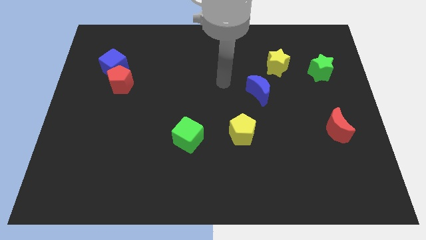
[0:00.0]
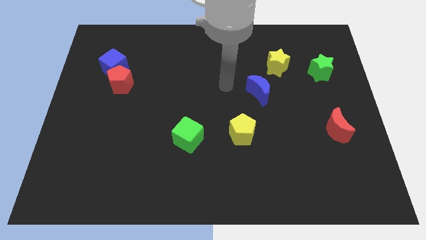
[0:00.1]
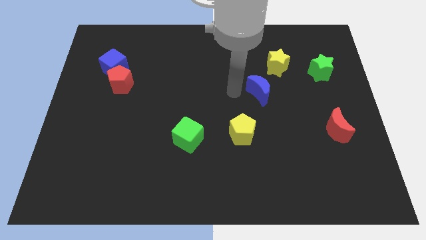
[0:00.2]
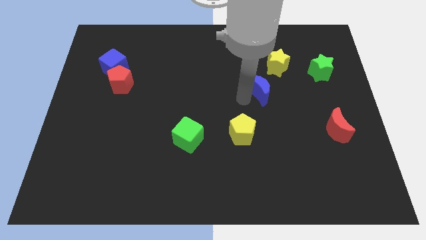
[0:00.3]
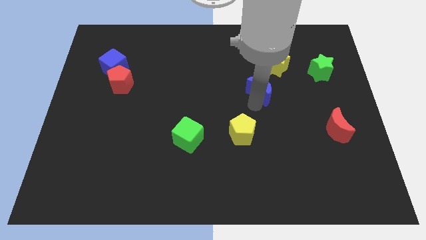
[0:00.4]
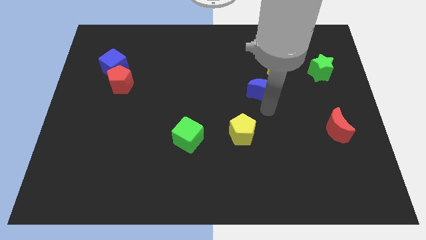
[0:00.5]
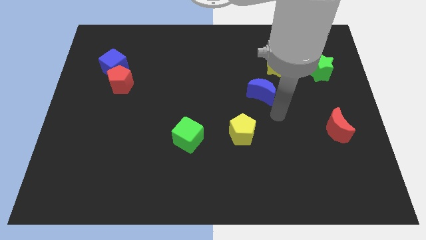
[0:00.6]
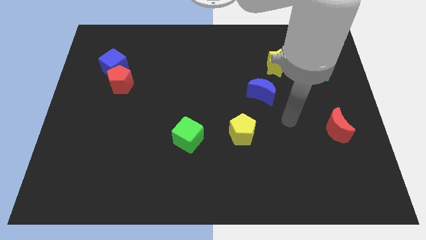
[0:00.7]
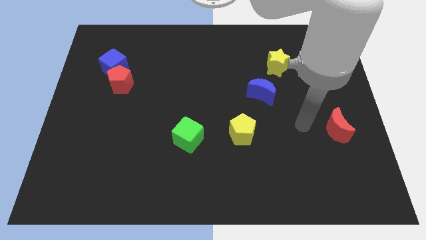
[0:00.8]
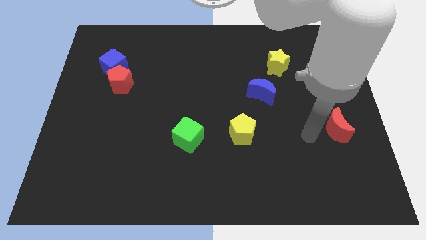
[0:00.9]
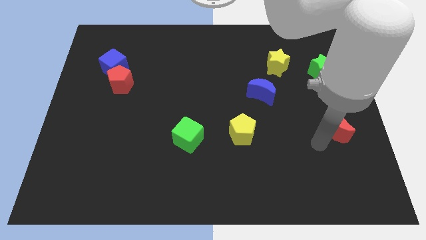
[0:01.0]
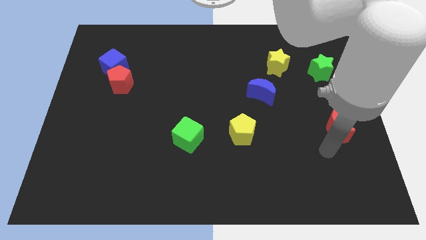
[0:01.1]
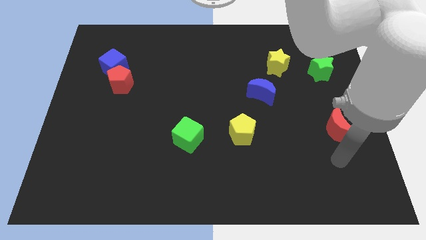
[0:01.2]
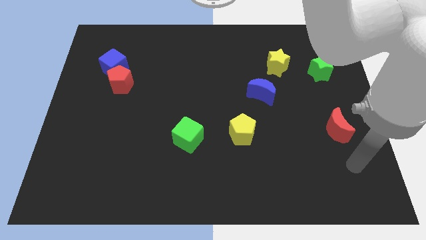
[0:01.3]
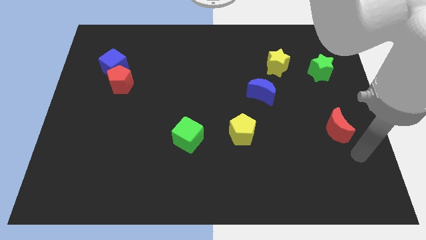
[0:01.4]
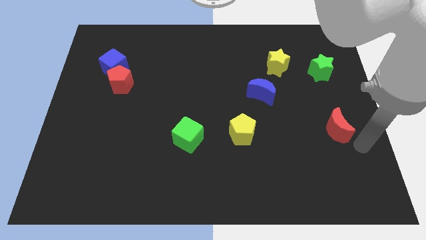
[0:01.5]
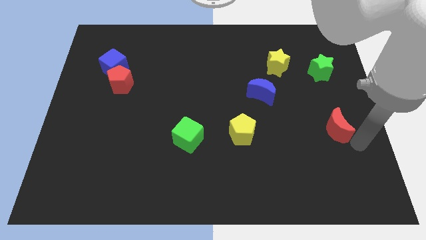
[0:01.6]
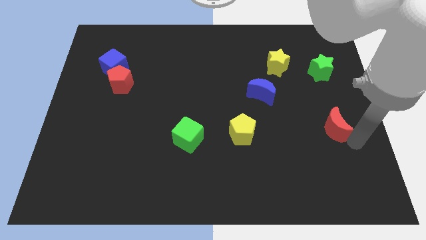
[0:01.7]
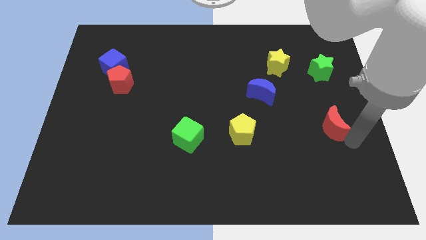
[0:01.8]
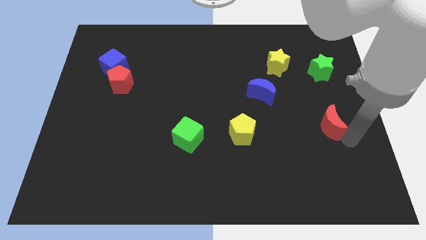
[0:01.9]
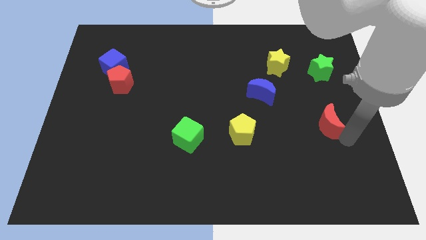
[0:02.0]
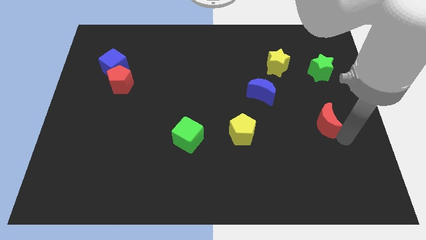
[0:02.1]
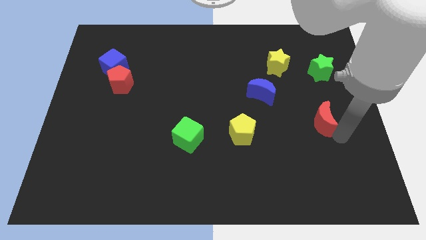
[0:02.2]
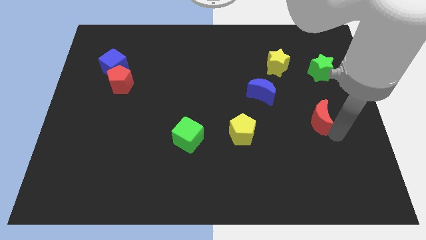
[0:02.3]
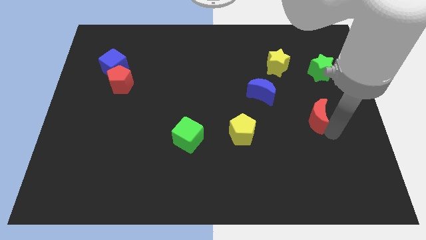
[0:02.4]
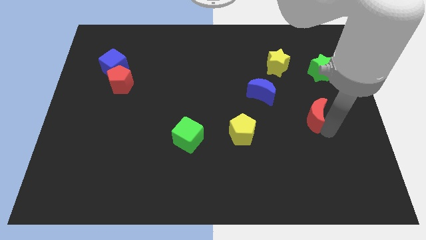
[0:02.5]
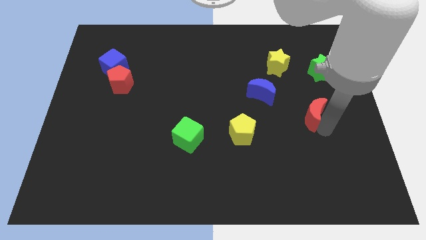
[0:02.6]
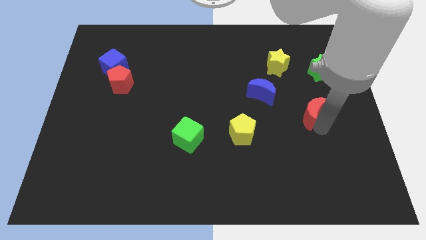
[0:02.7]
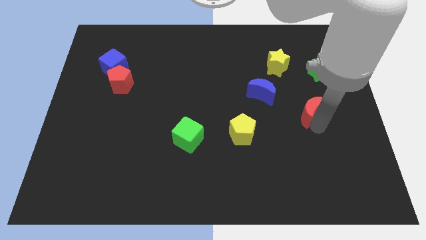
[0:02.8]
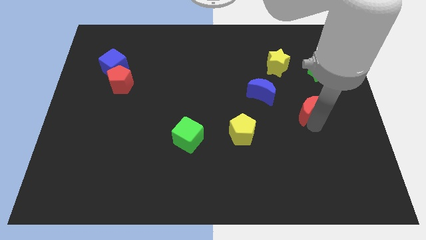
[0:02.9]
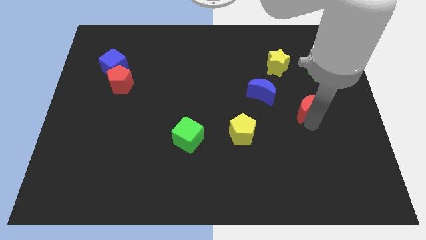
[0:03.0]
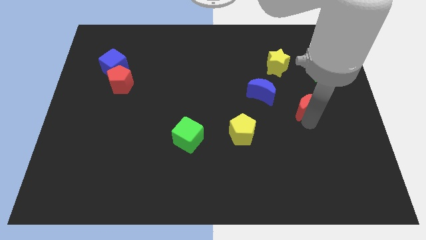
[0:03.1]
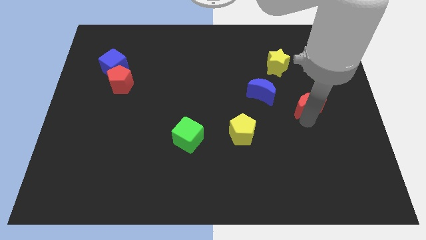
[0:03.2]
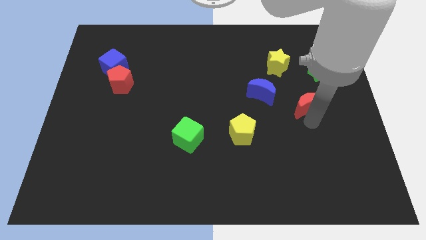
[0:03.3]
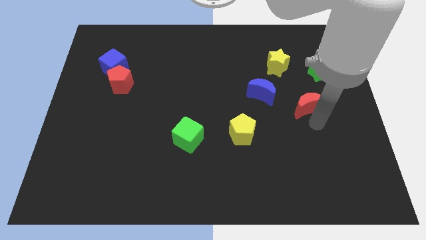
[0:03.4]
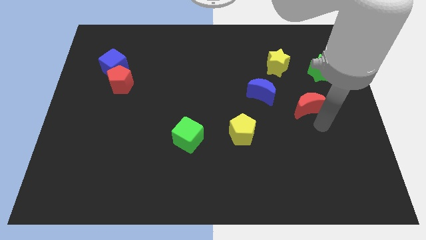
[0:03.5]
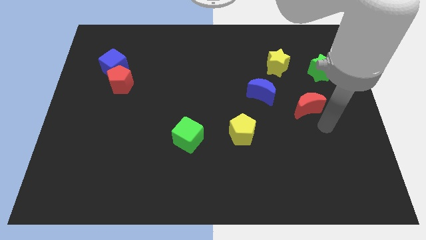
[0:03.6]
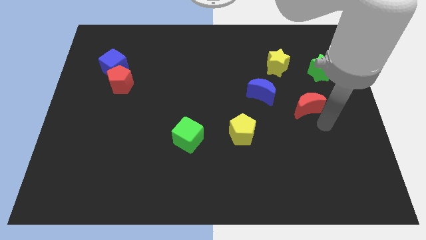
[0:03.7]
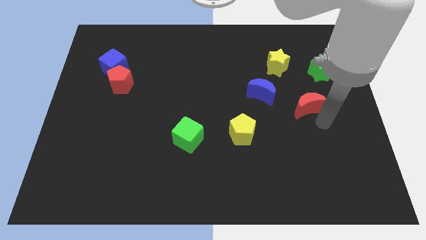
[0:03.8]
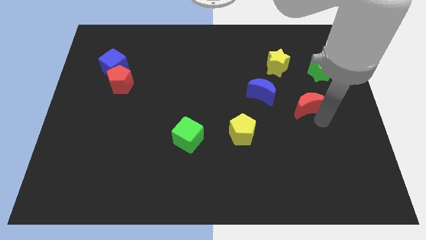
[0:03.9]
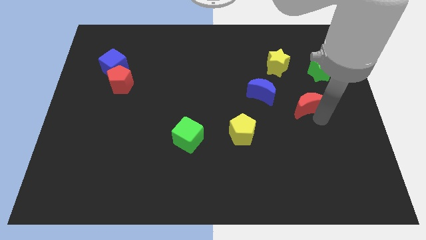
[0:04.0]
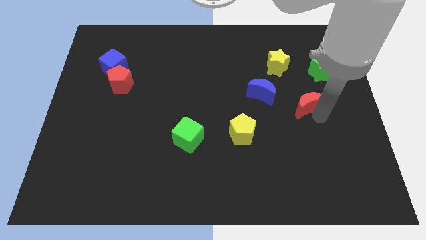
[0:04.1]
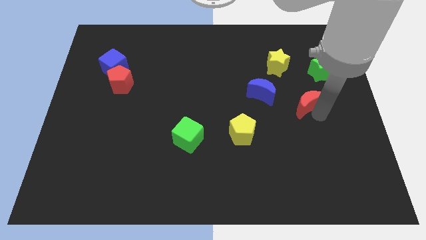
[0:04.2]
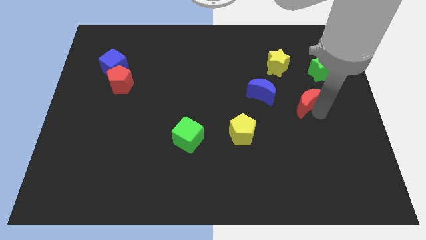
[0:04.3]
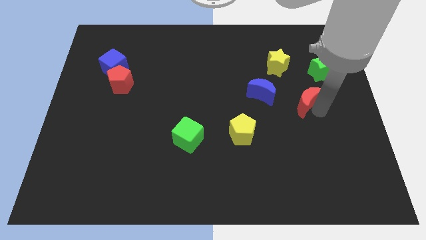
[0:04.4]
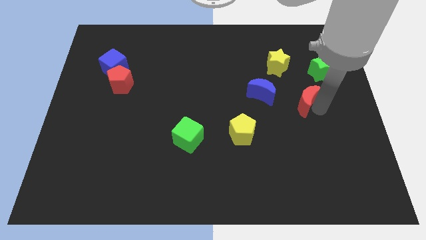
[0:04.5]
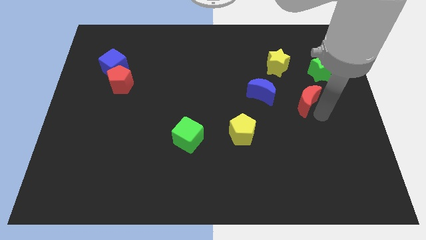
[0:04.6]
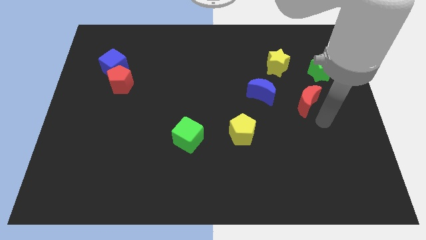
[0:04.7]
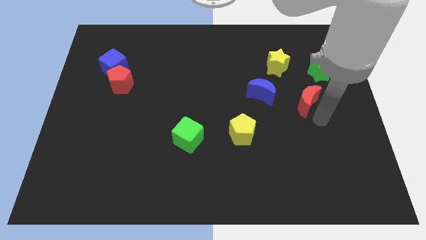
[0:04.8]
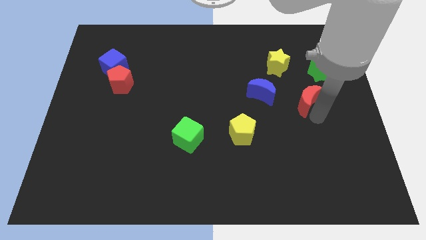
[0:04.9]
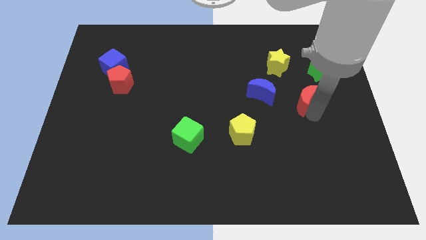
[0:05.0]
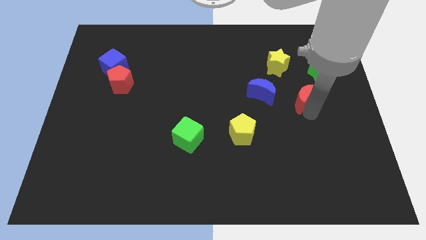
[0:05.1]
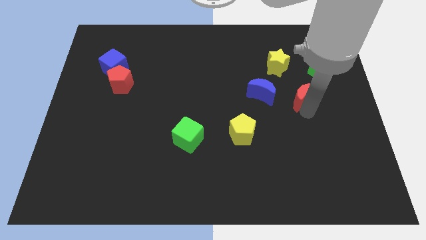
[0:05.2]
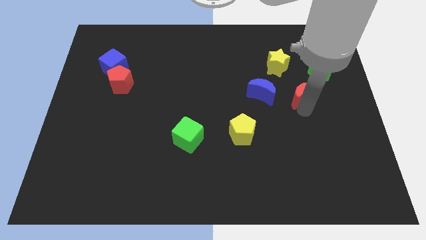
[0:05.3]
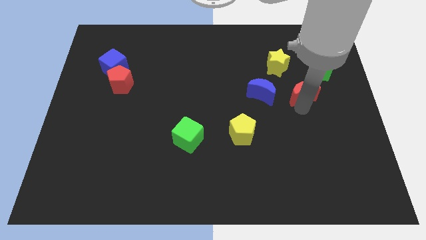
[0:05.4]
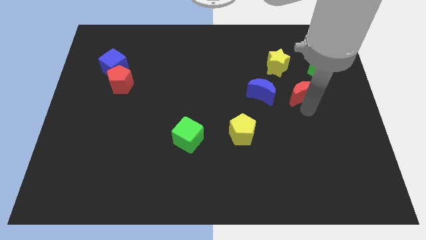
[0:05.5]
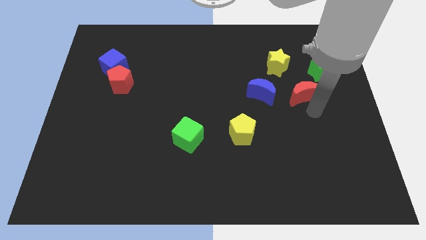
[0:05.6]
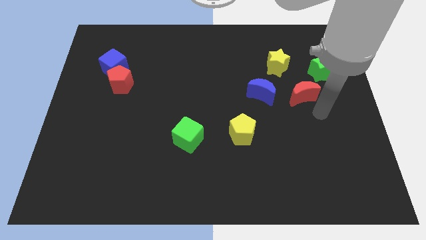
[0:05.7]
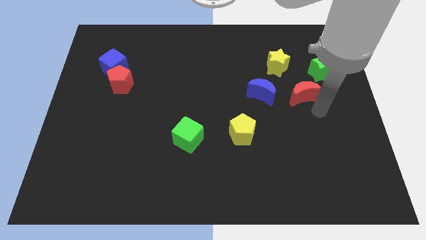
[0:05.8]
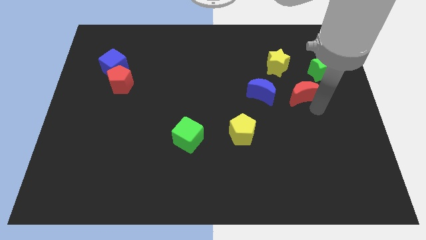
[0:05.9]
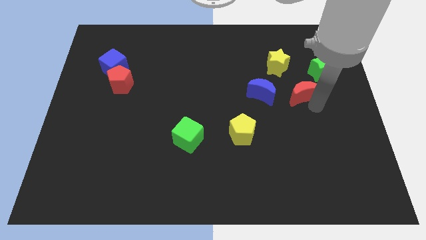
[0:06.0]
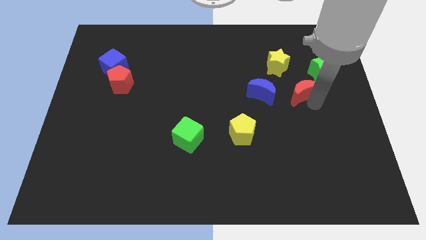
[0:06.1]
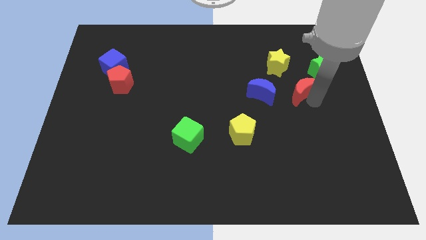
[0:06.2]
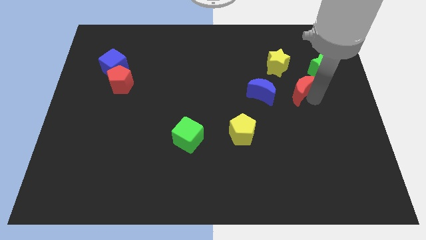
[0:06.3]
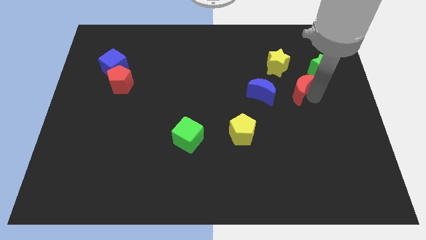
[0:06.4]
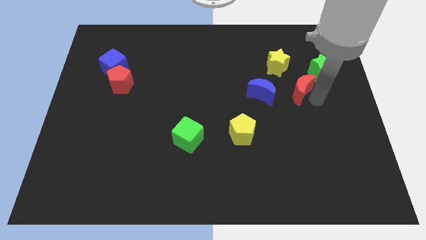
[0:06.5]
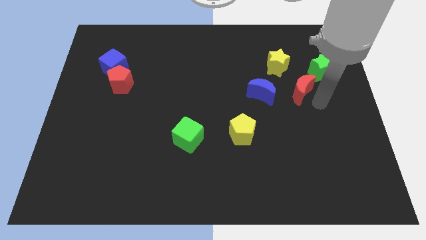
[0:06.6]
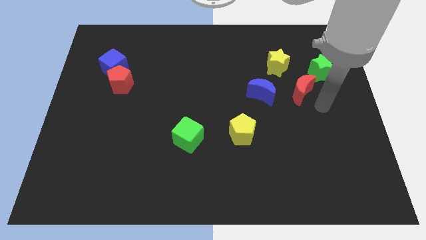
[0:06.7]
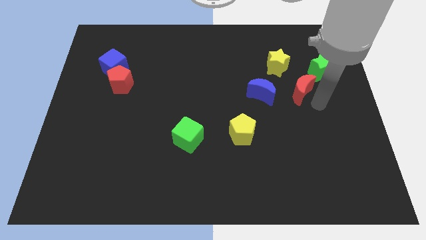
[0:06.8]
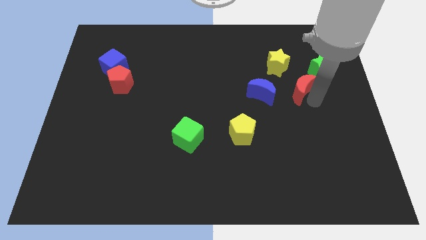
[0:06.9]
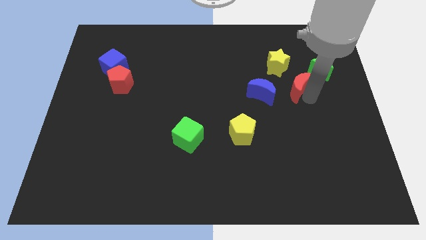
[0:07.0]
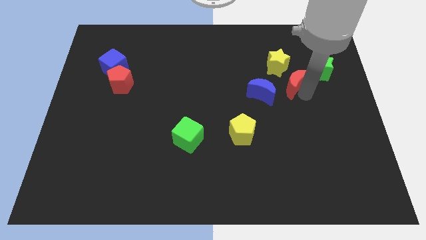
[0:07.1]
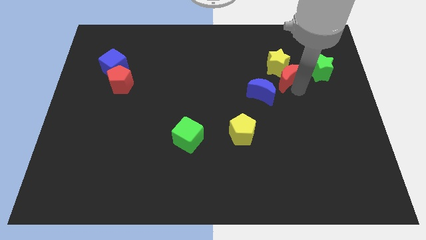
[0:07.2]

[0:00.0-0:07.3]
push the red moon to the yellow star
